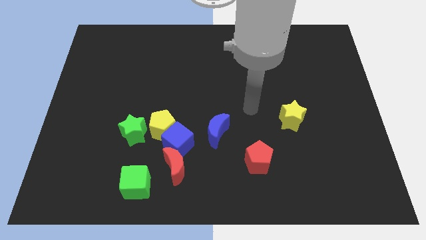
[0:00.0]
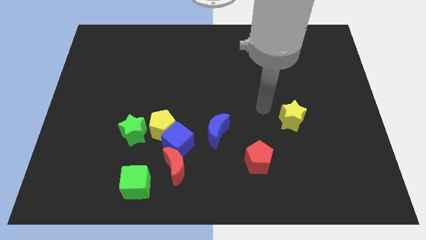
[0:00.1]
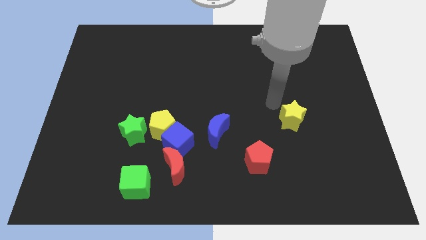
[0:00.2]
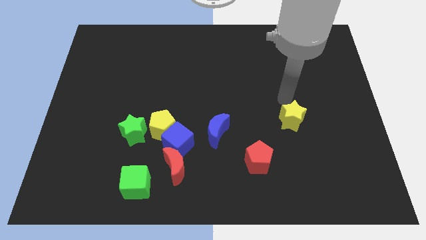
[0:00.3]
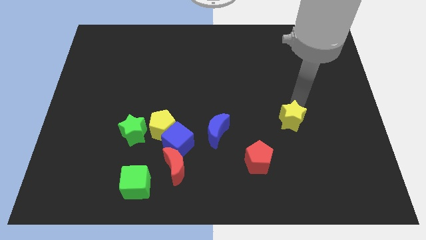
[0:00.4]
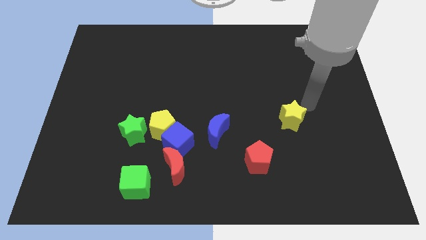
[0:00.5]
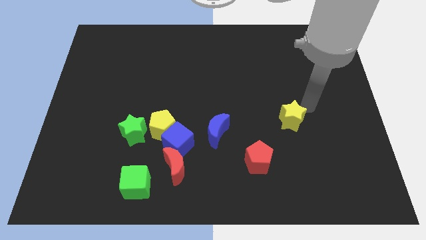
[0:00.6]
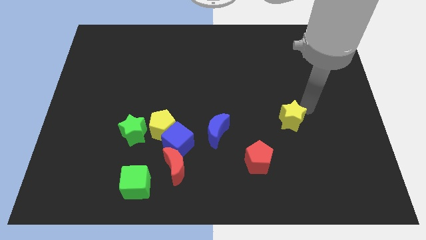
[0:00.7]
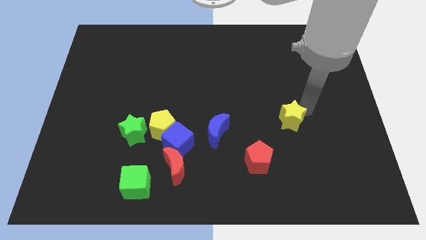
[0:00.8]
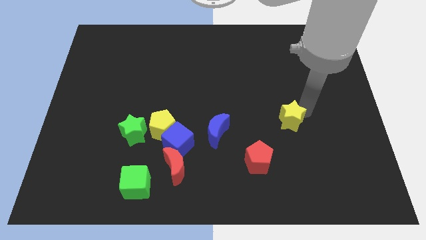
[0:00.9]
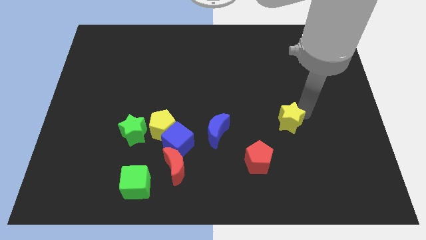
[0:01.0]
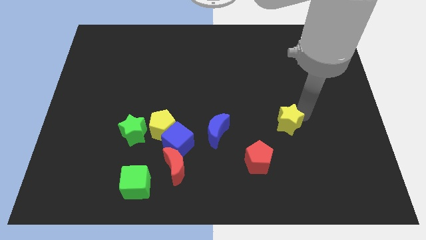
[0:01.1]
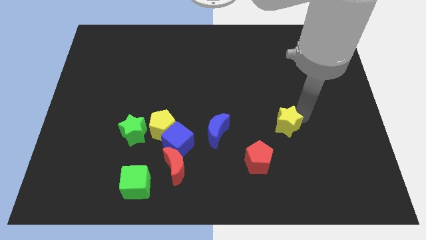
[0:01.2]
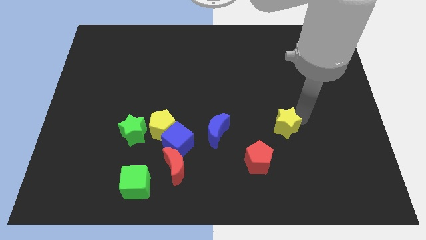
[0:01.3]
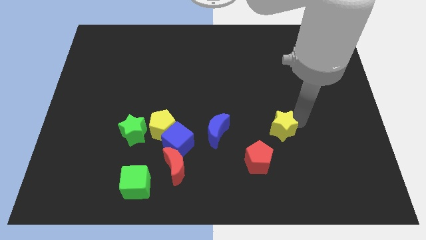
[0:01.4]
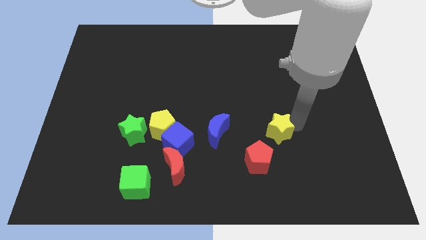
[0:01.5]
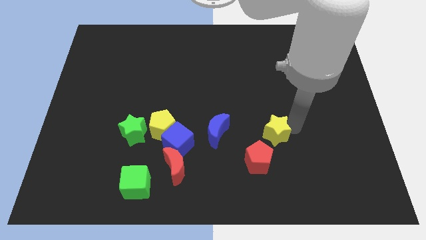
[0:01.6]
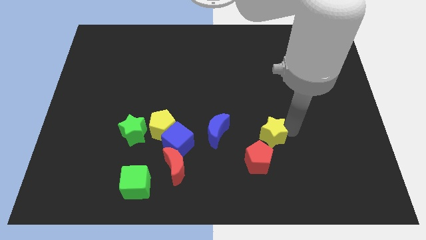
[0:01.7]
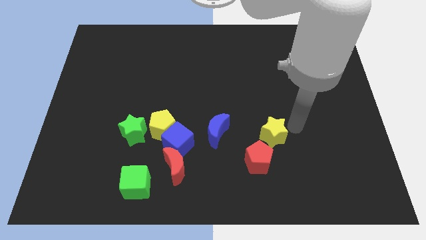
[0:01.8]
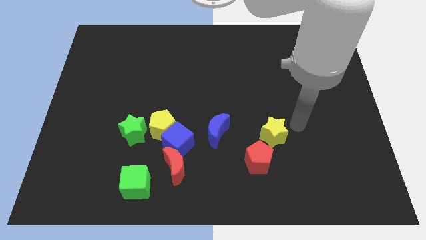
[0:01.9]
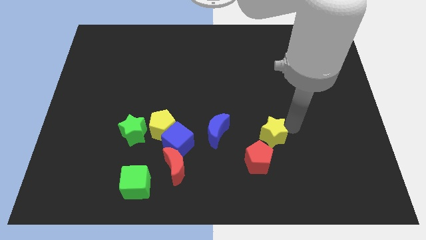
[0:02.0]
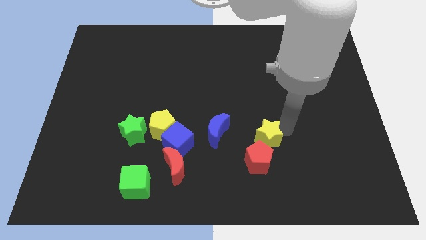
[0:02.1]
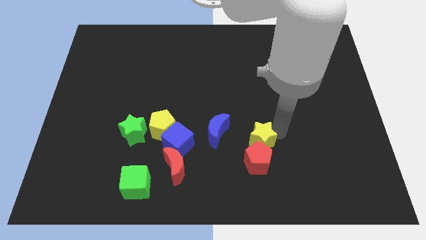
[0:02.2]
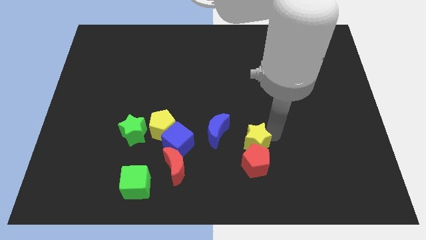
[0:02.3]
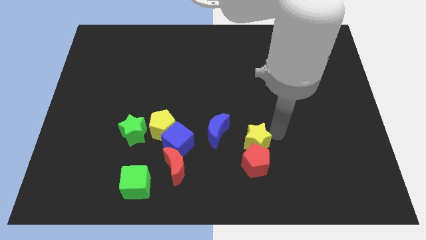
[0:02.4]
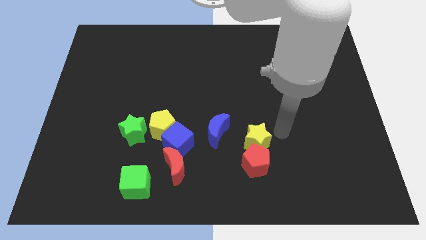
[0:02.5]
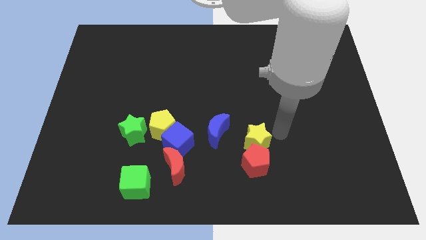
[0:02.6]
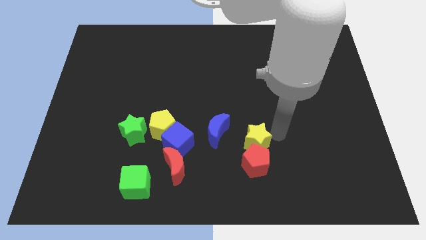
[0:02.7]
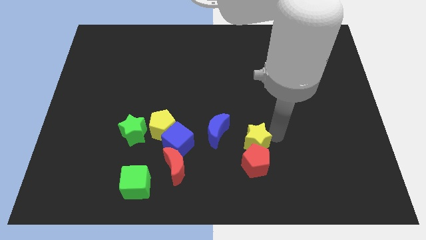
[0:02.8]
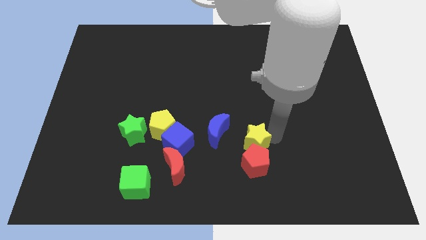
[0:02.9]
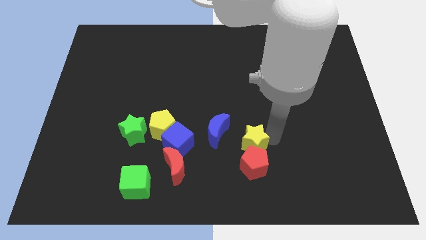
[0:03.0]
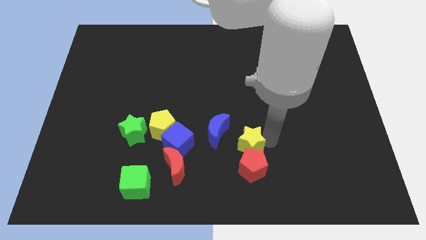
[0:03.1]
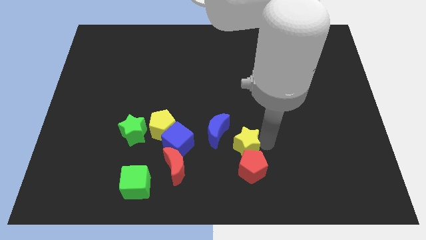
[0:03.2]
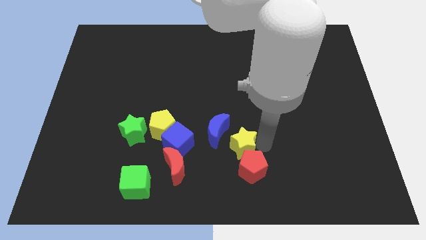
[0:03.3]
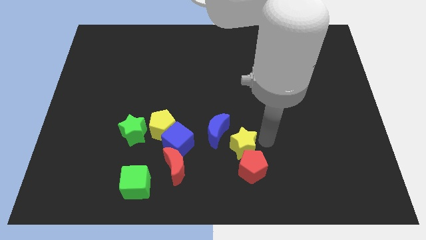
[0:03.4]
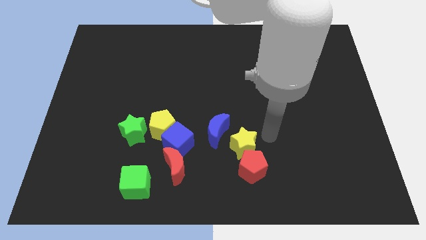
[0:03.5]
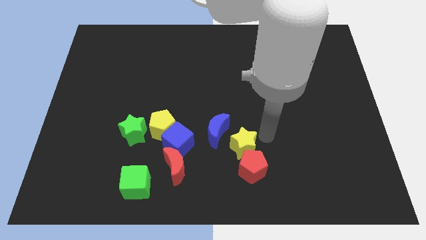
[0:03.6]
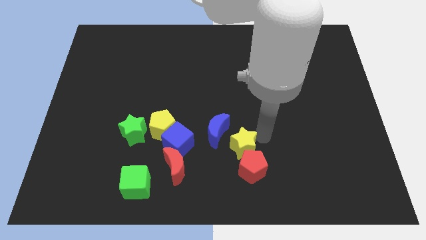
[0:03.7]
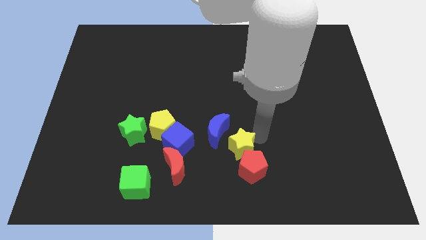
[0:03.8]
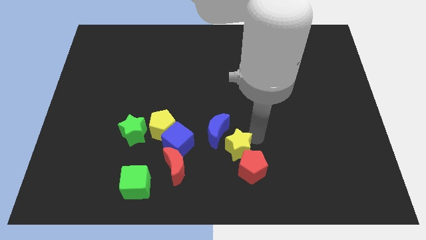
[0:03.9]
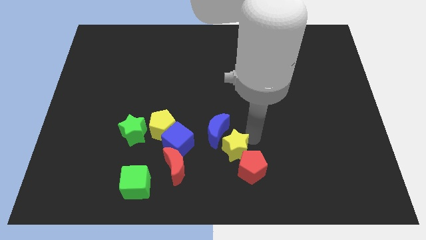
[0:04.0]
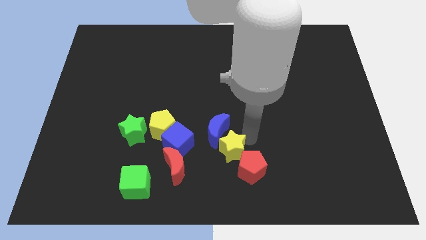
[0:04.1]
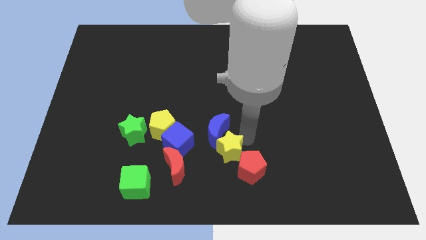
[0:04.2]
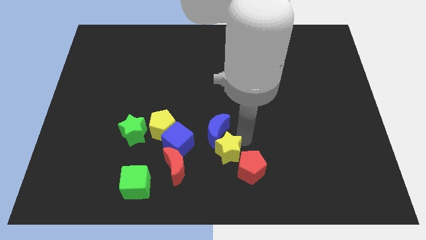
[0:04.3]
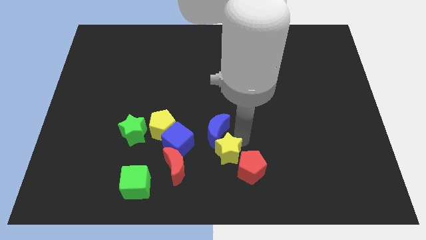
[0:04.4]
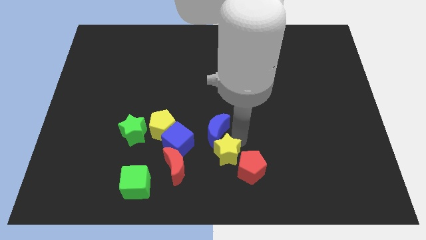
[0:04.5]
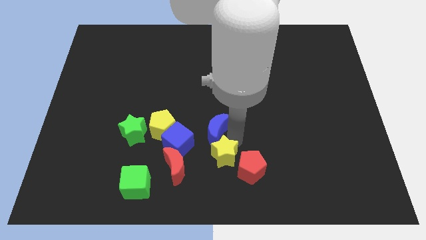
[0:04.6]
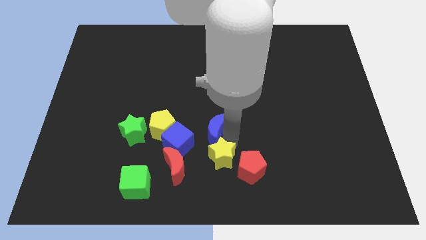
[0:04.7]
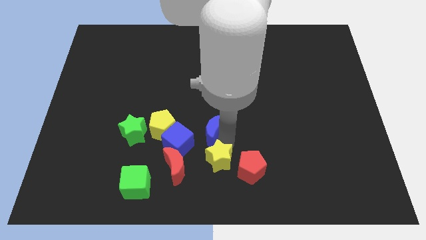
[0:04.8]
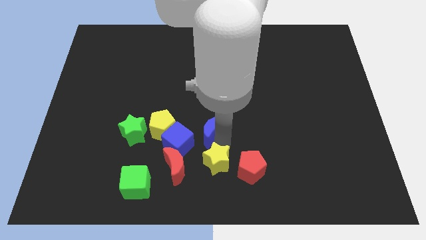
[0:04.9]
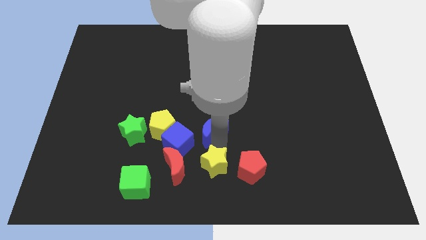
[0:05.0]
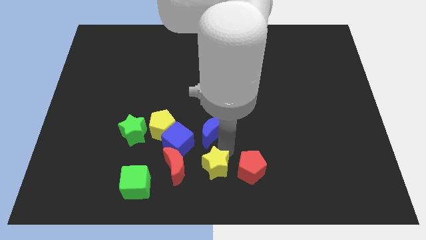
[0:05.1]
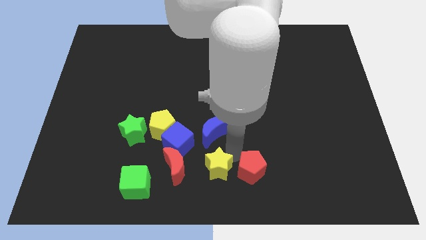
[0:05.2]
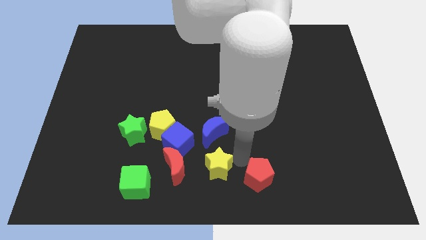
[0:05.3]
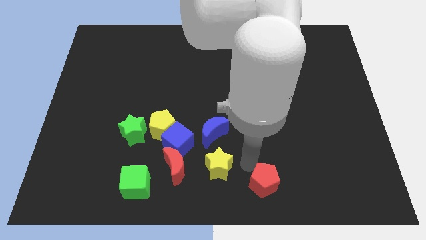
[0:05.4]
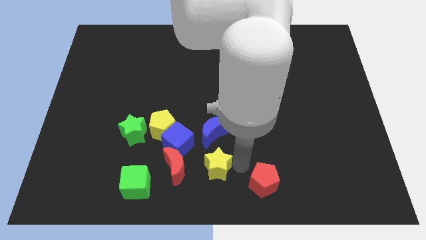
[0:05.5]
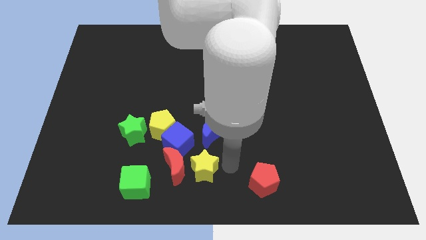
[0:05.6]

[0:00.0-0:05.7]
move the yellow star towards the red moon

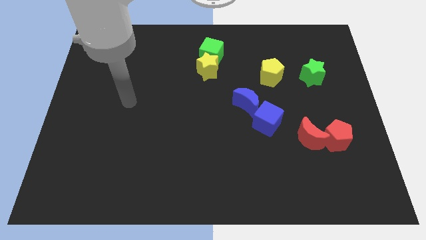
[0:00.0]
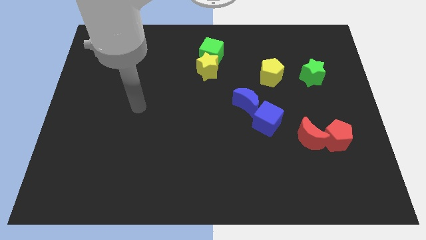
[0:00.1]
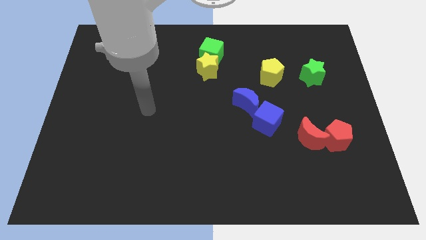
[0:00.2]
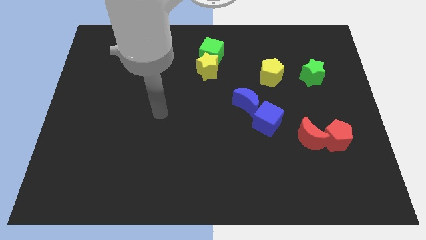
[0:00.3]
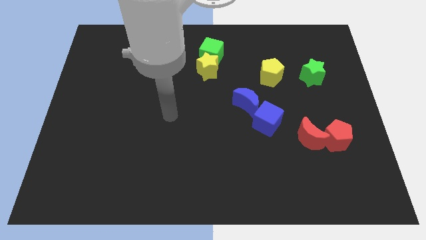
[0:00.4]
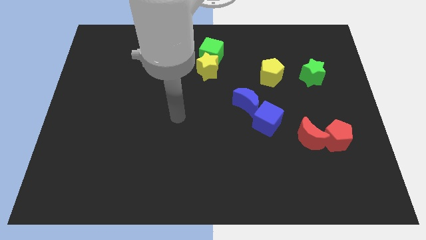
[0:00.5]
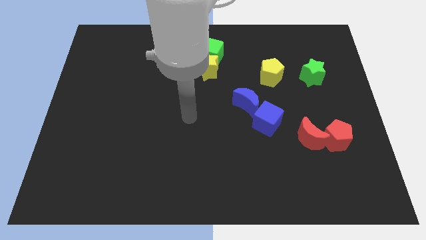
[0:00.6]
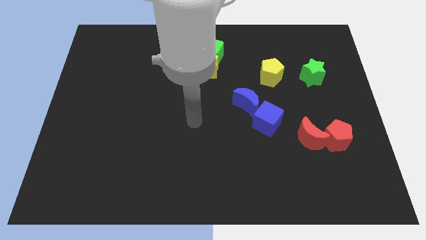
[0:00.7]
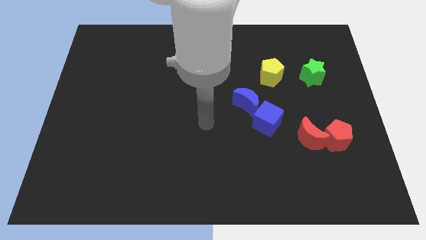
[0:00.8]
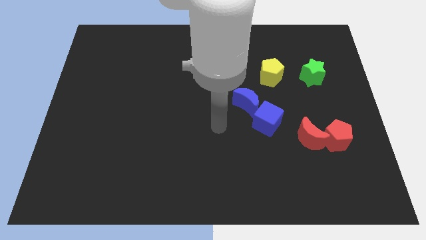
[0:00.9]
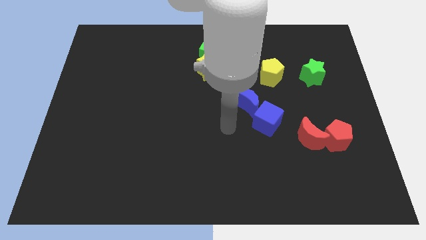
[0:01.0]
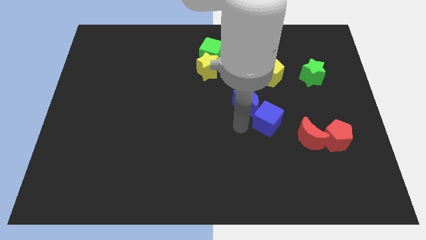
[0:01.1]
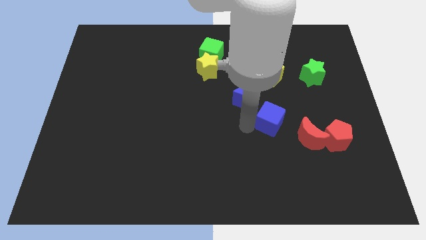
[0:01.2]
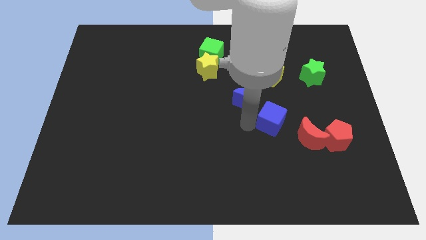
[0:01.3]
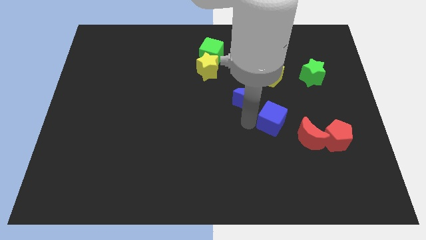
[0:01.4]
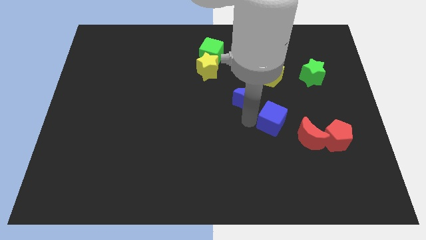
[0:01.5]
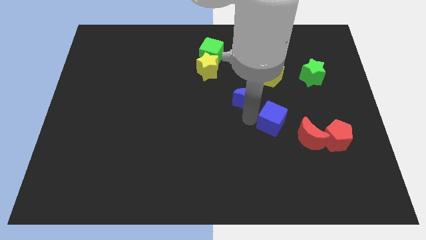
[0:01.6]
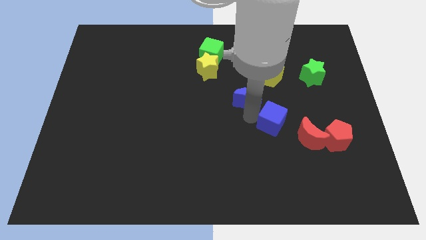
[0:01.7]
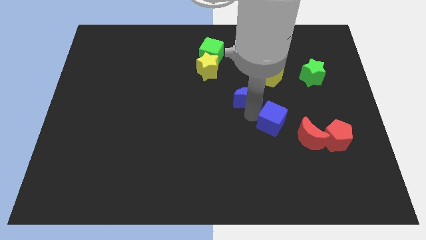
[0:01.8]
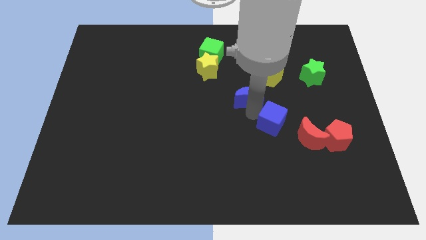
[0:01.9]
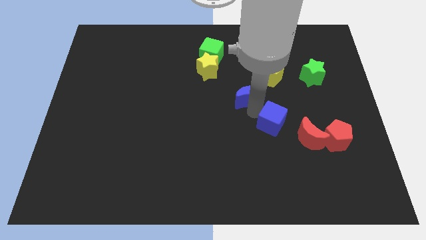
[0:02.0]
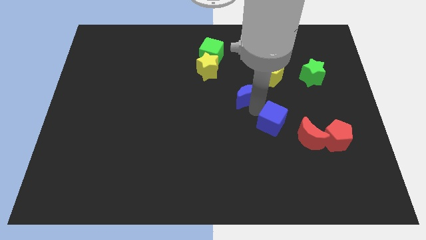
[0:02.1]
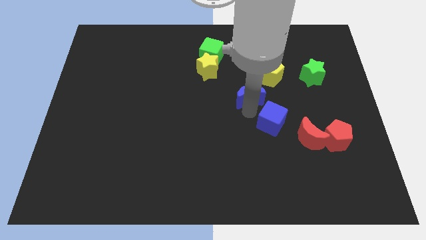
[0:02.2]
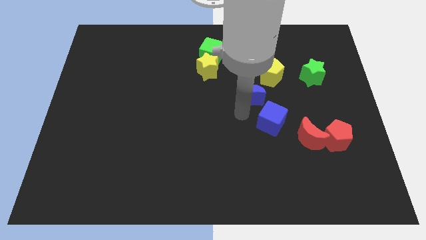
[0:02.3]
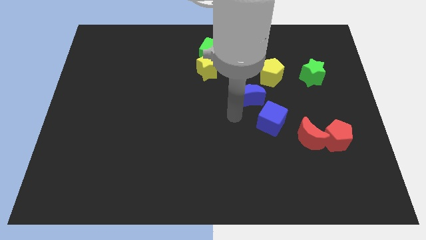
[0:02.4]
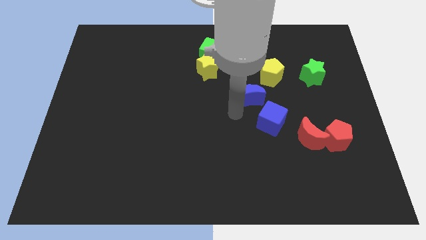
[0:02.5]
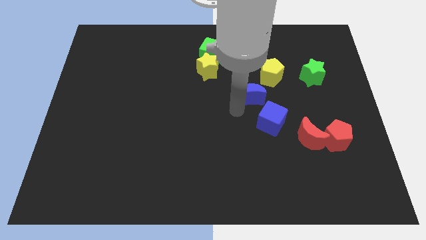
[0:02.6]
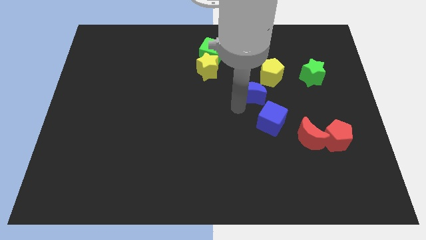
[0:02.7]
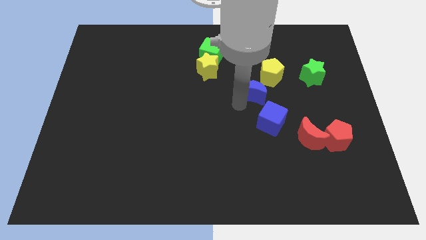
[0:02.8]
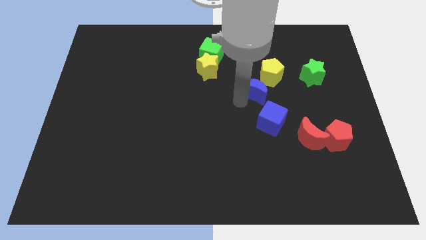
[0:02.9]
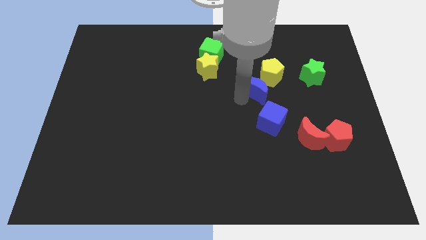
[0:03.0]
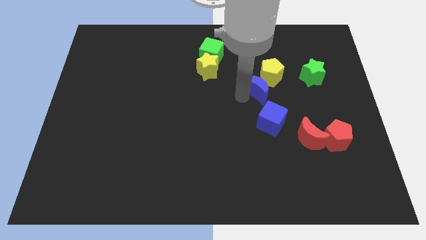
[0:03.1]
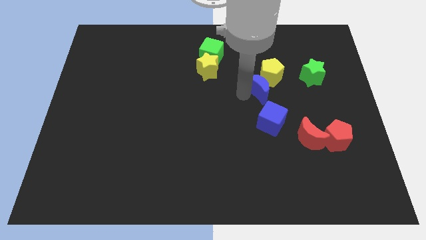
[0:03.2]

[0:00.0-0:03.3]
slide the blue moon next to the yellow pentagon
